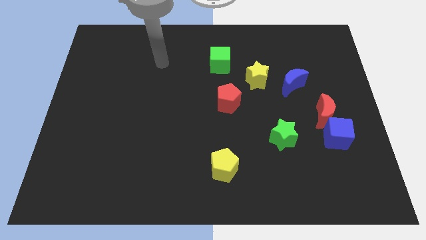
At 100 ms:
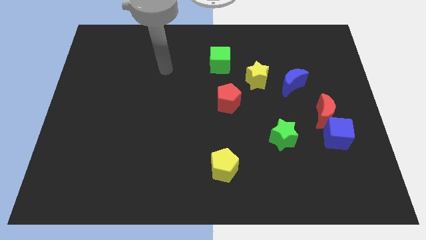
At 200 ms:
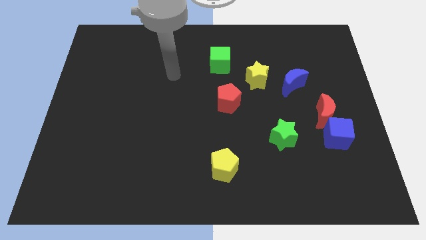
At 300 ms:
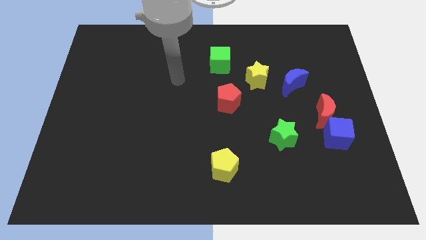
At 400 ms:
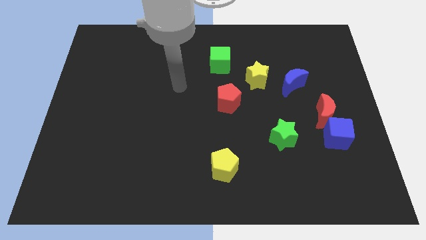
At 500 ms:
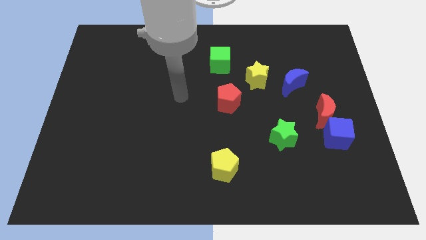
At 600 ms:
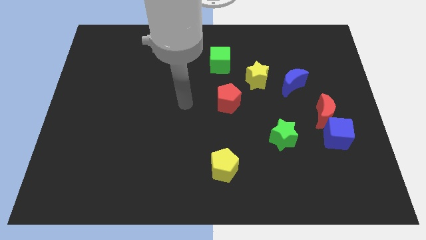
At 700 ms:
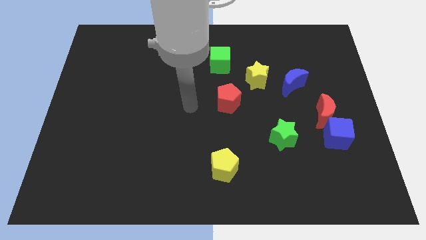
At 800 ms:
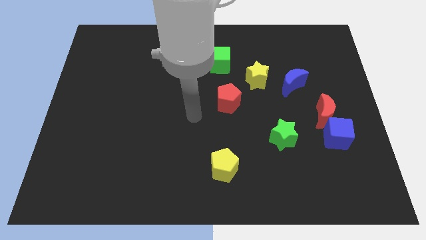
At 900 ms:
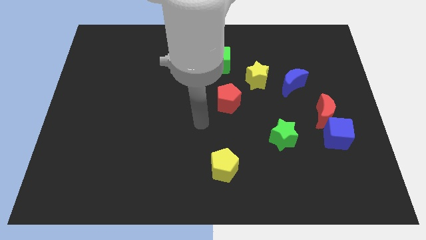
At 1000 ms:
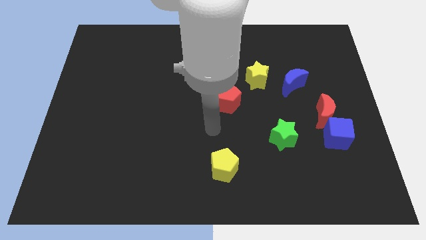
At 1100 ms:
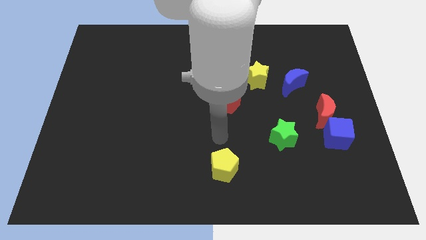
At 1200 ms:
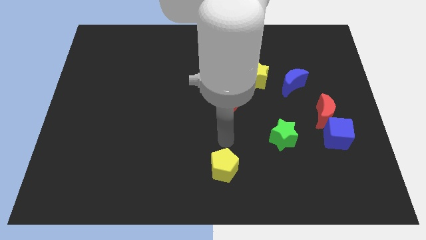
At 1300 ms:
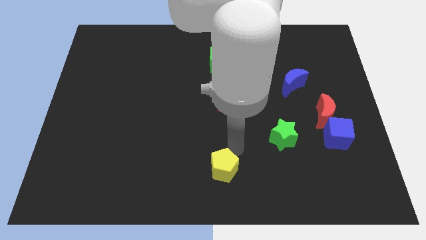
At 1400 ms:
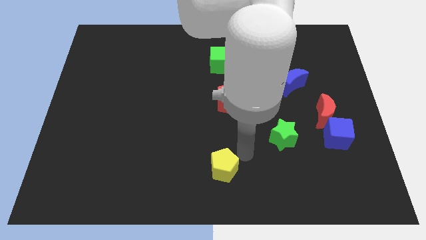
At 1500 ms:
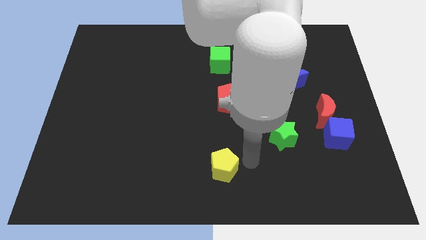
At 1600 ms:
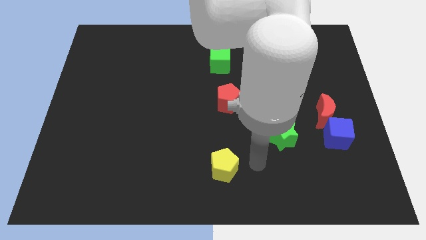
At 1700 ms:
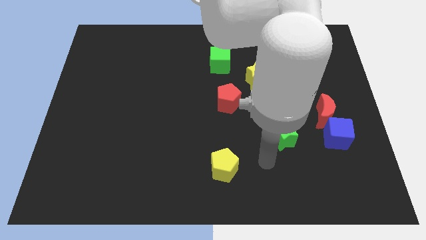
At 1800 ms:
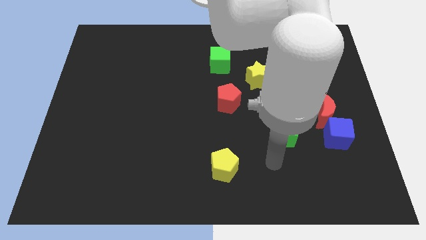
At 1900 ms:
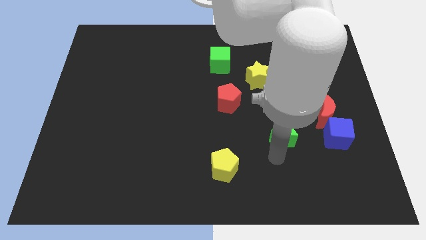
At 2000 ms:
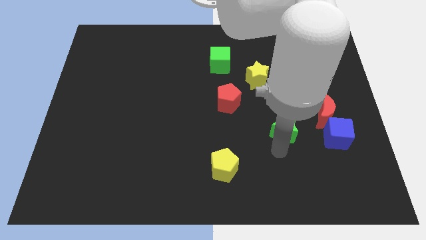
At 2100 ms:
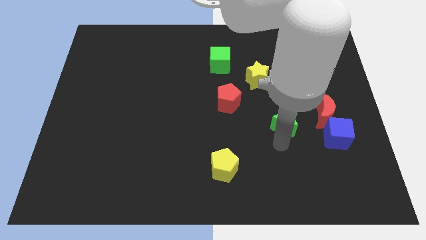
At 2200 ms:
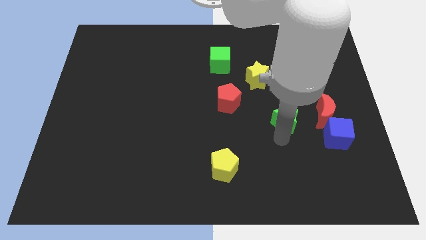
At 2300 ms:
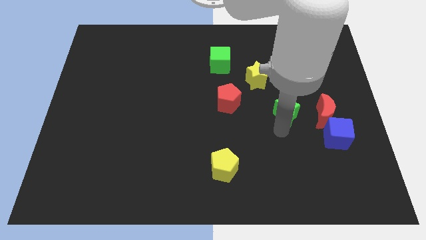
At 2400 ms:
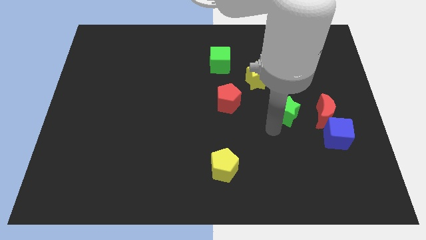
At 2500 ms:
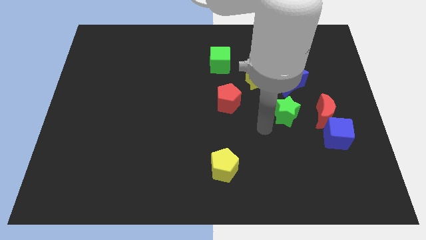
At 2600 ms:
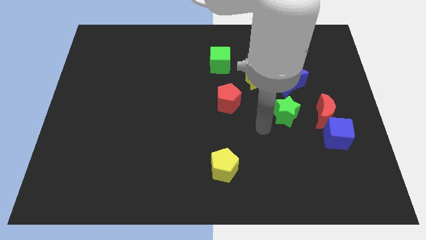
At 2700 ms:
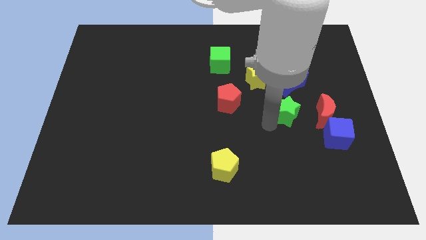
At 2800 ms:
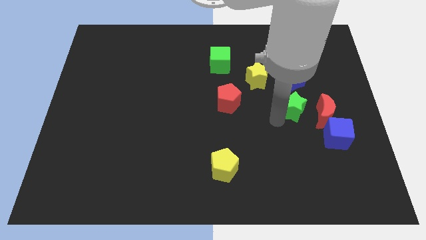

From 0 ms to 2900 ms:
slightly slide the green star up and then to the right

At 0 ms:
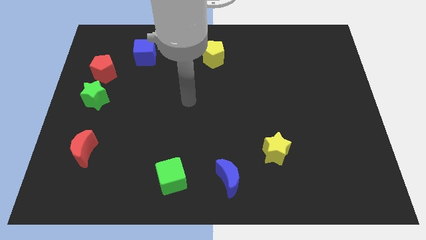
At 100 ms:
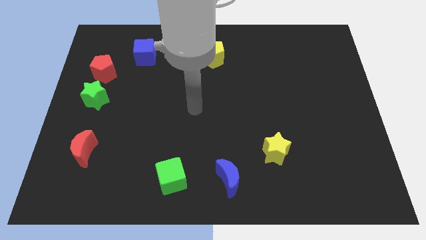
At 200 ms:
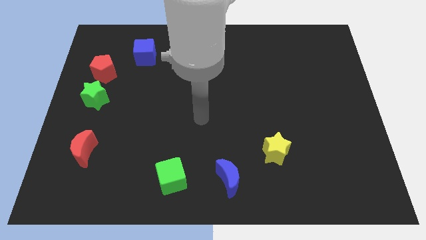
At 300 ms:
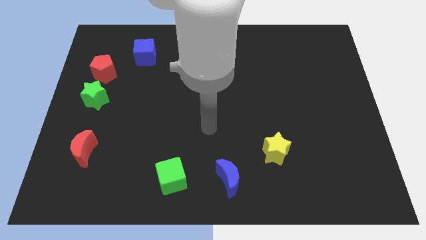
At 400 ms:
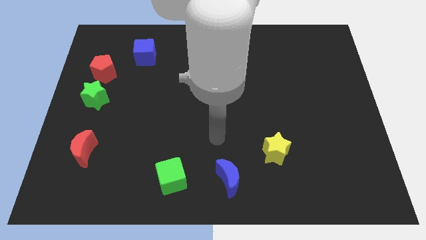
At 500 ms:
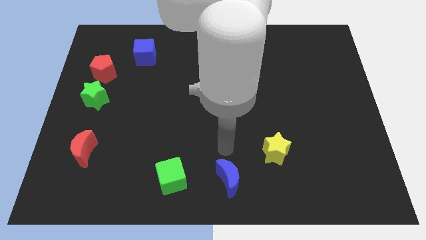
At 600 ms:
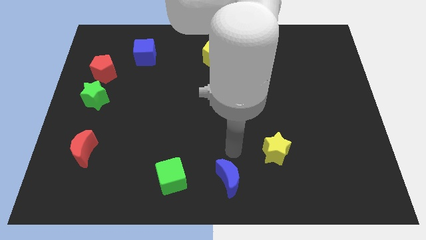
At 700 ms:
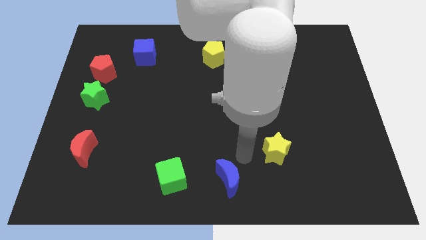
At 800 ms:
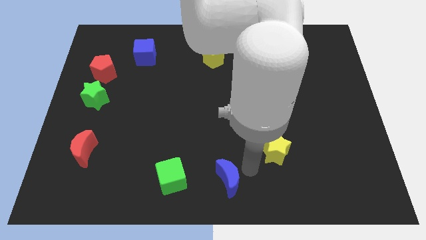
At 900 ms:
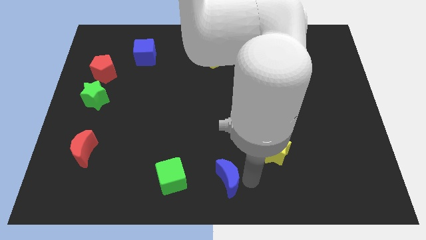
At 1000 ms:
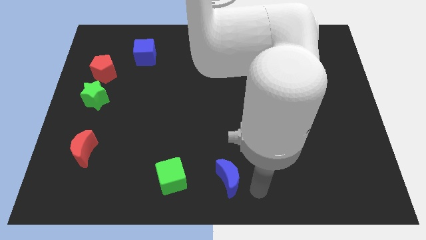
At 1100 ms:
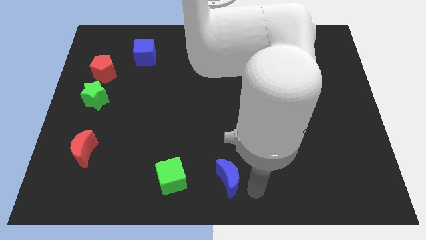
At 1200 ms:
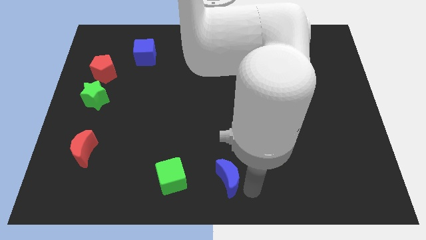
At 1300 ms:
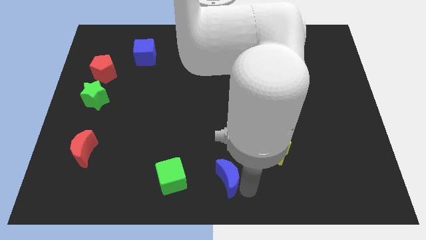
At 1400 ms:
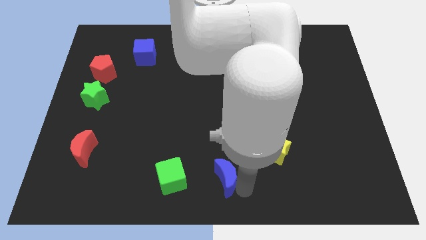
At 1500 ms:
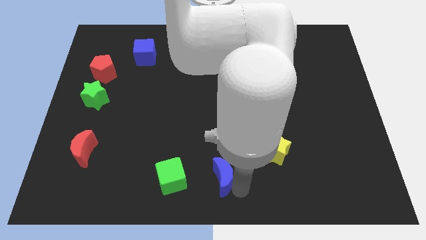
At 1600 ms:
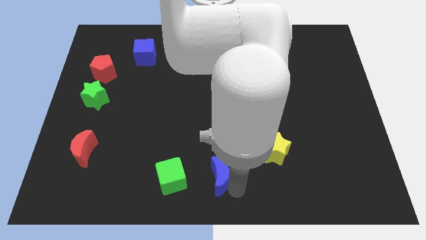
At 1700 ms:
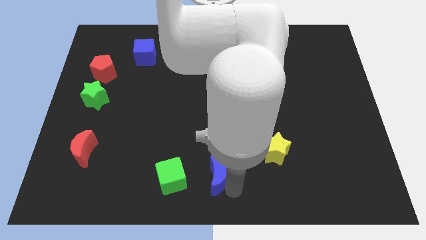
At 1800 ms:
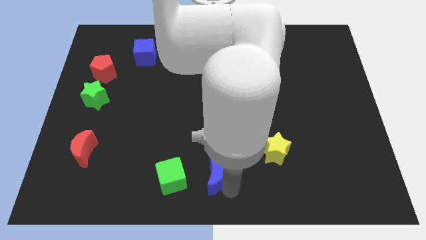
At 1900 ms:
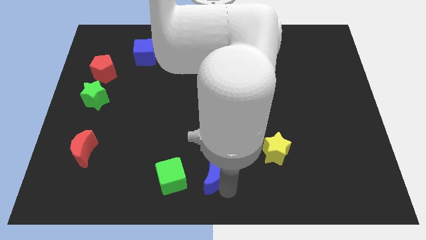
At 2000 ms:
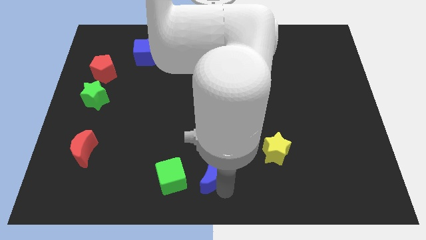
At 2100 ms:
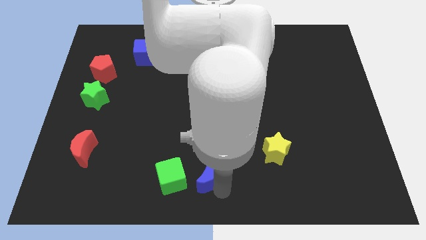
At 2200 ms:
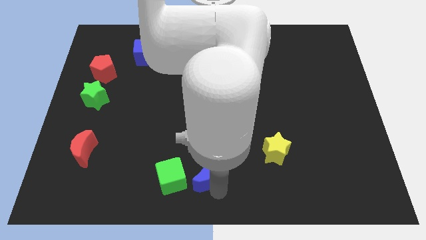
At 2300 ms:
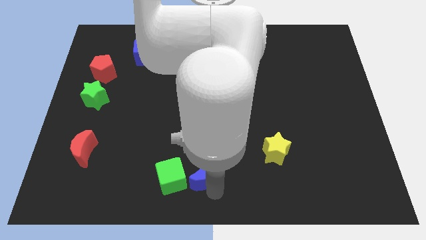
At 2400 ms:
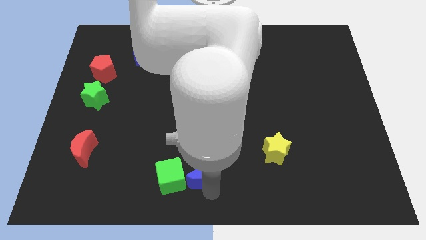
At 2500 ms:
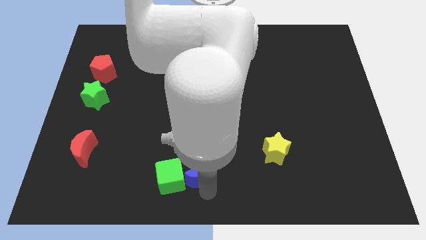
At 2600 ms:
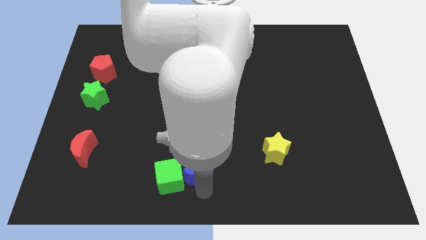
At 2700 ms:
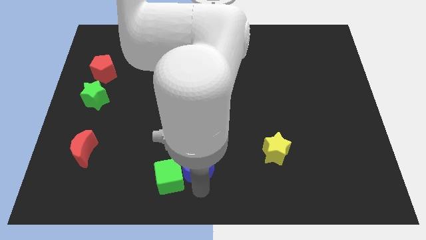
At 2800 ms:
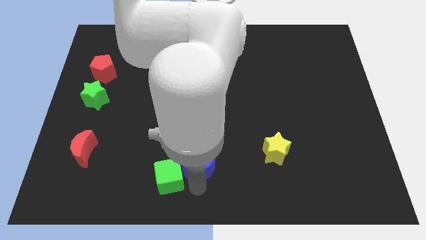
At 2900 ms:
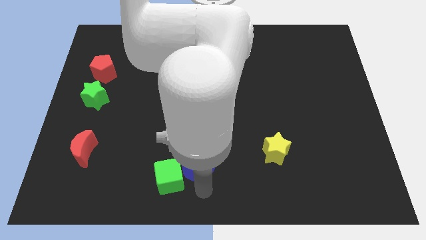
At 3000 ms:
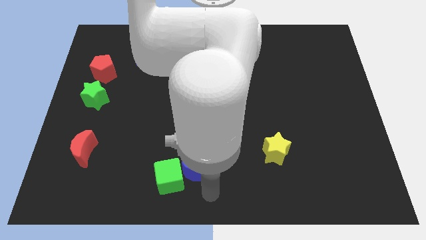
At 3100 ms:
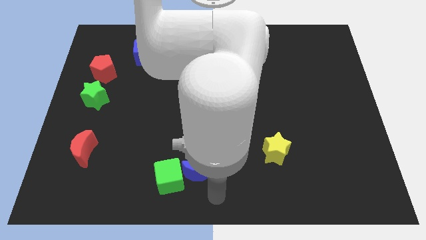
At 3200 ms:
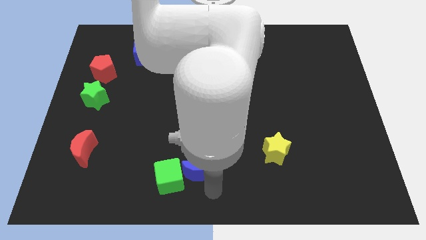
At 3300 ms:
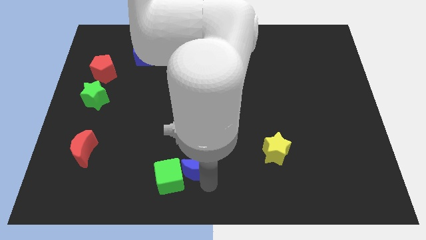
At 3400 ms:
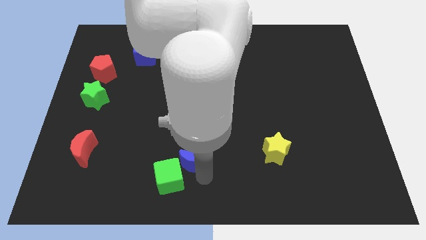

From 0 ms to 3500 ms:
slightly push the blue moon upwards and then to the left

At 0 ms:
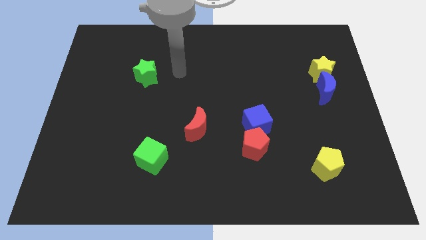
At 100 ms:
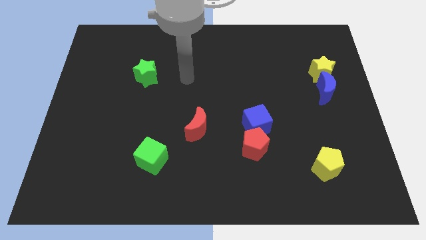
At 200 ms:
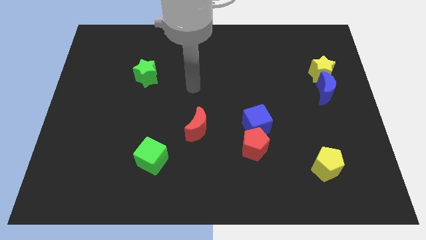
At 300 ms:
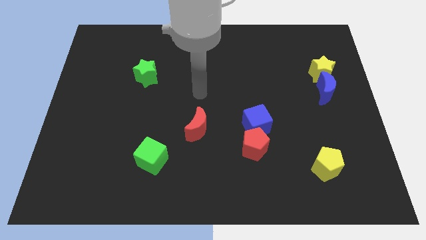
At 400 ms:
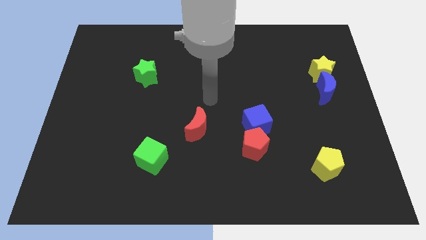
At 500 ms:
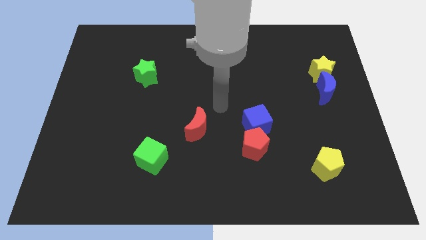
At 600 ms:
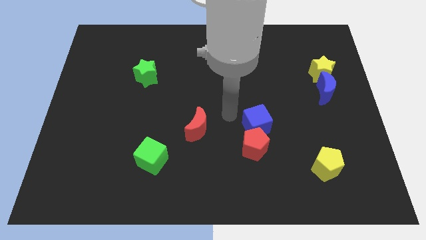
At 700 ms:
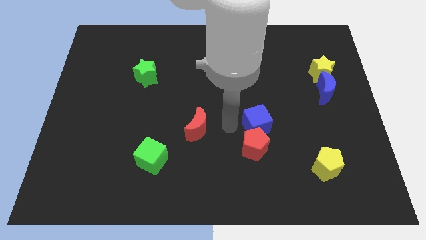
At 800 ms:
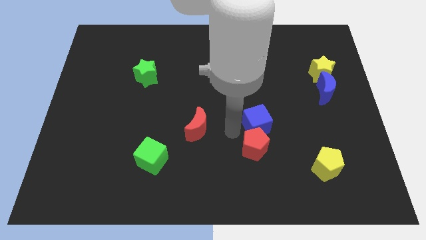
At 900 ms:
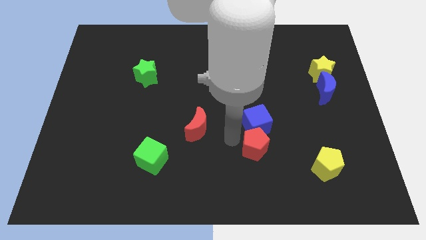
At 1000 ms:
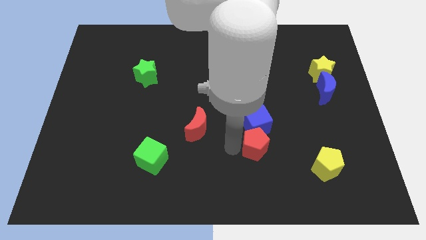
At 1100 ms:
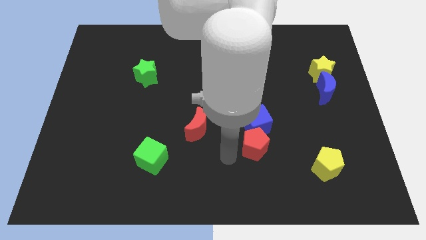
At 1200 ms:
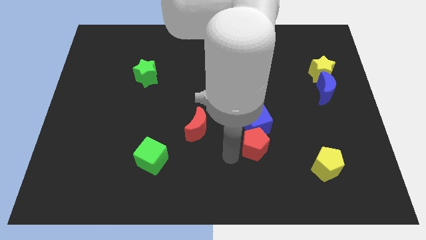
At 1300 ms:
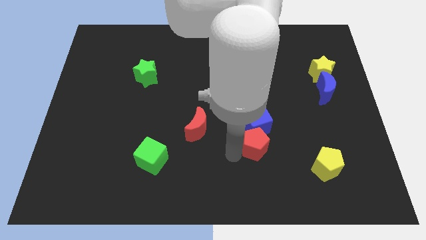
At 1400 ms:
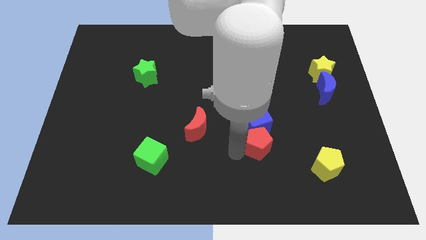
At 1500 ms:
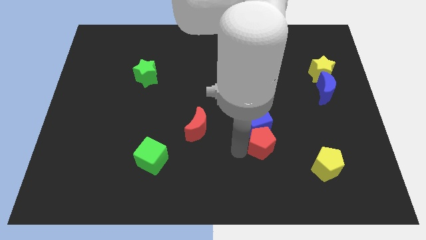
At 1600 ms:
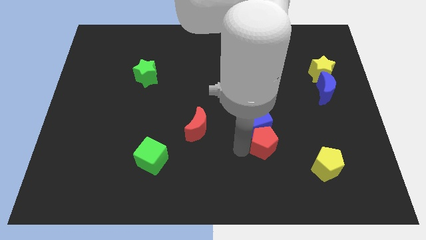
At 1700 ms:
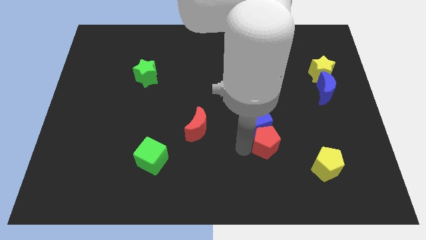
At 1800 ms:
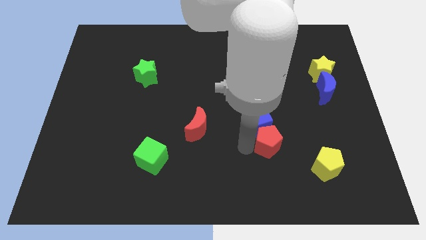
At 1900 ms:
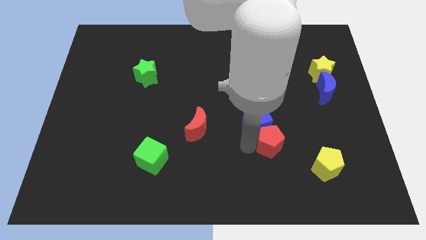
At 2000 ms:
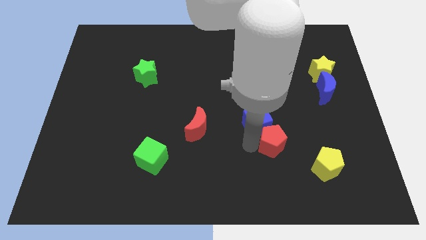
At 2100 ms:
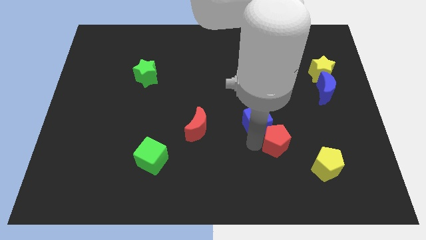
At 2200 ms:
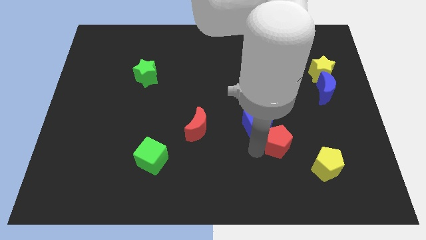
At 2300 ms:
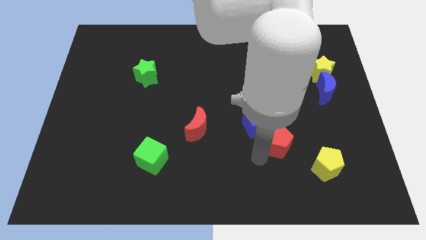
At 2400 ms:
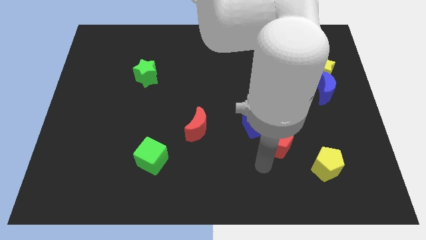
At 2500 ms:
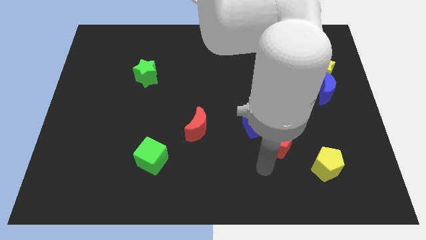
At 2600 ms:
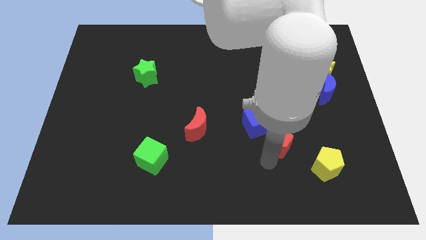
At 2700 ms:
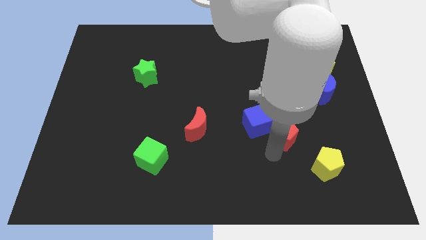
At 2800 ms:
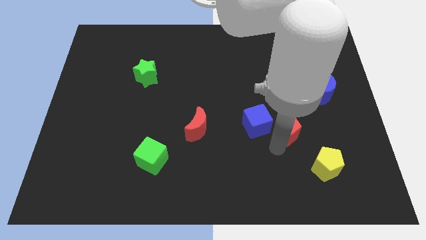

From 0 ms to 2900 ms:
push the red pentagon a little bit up and to the right
